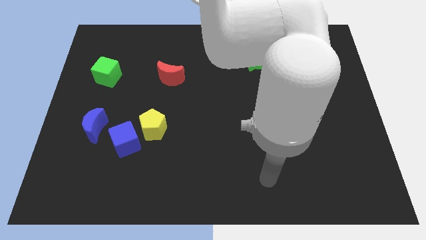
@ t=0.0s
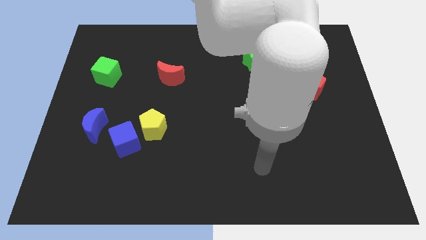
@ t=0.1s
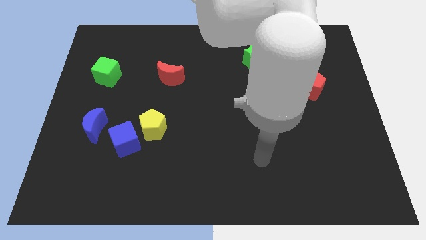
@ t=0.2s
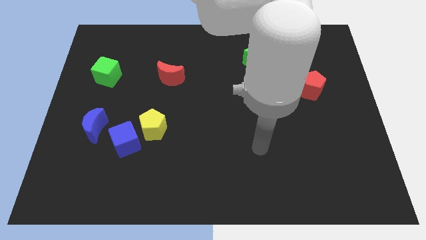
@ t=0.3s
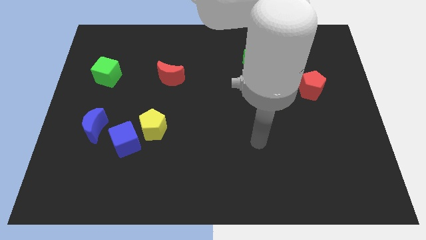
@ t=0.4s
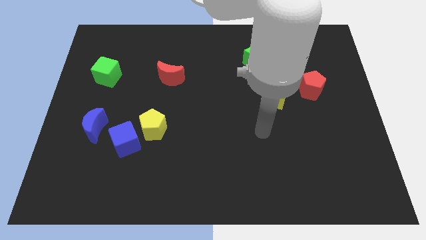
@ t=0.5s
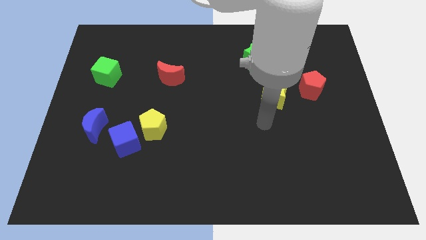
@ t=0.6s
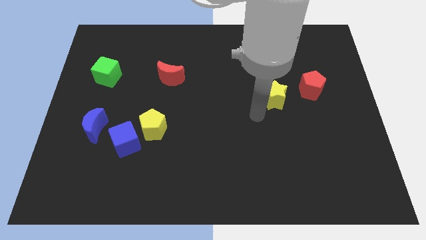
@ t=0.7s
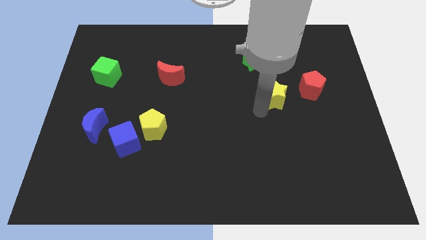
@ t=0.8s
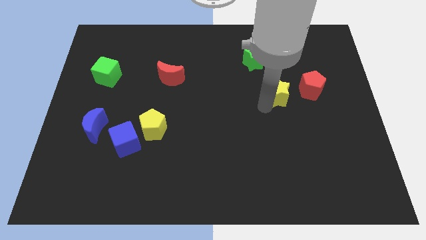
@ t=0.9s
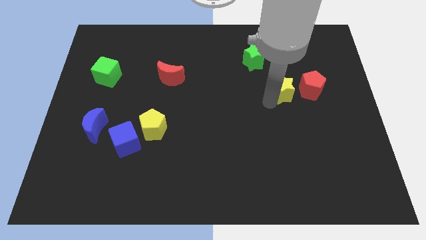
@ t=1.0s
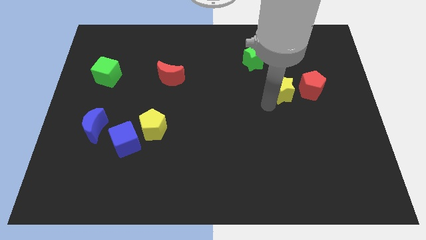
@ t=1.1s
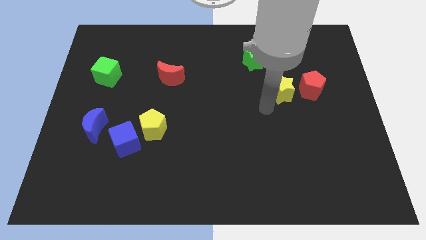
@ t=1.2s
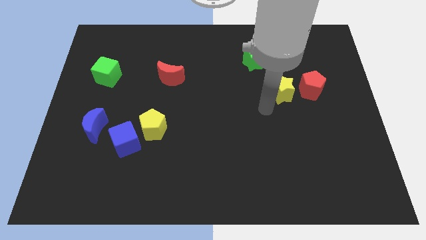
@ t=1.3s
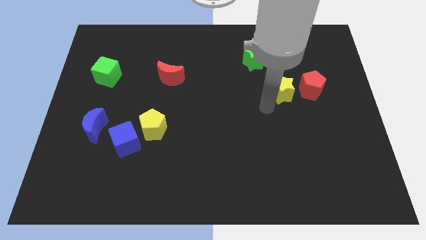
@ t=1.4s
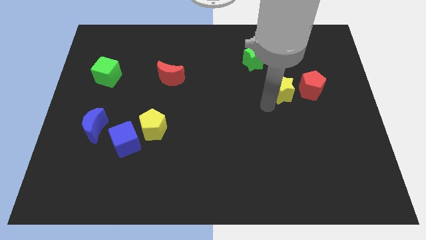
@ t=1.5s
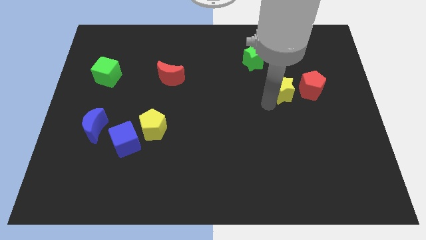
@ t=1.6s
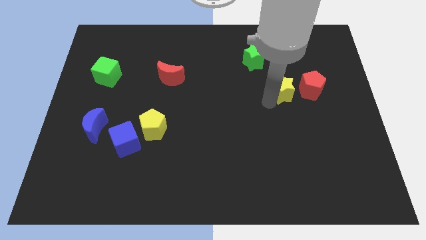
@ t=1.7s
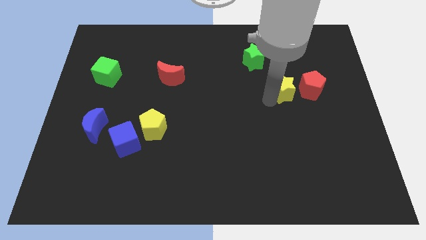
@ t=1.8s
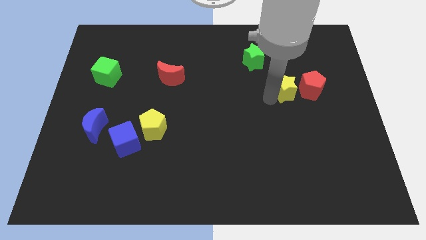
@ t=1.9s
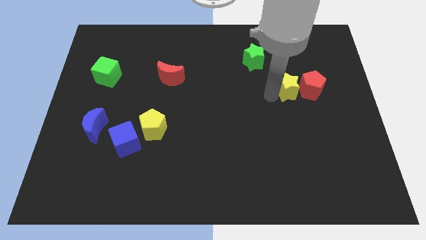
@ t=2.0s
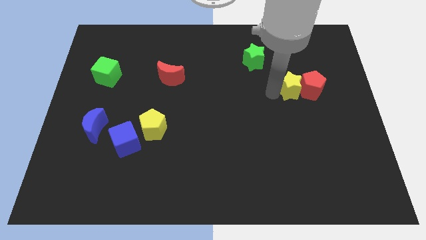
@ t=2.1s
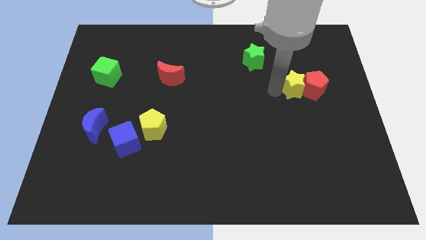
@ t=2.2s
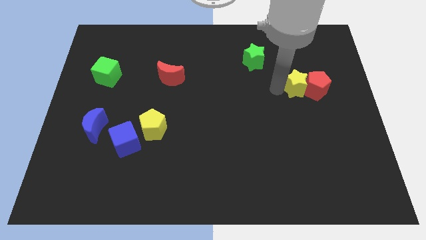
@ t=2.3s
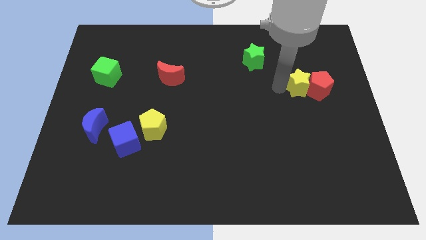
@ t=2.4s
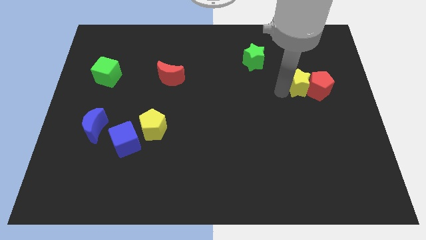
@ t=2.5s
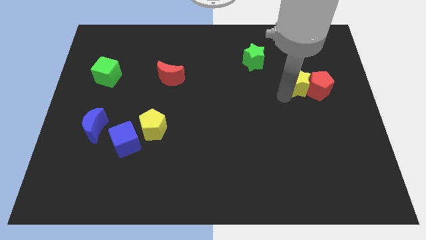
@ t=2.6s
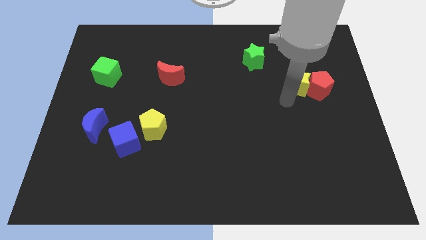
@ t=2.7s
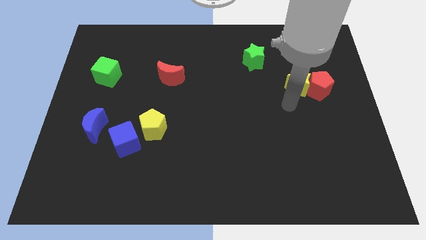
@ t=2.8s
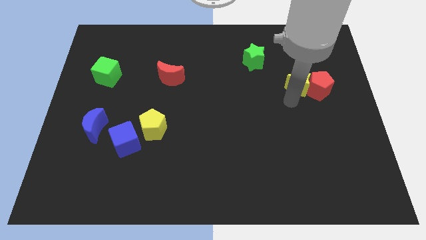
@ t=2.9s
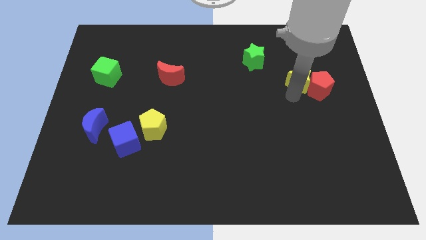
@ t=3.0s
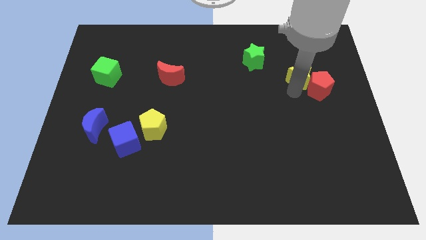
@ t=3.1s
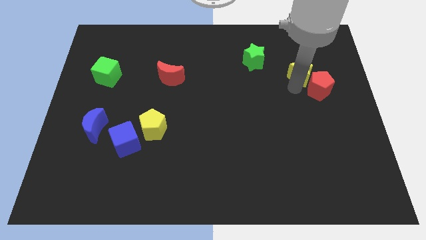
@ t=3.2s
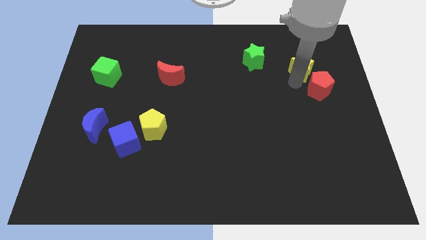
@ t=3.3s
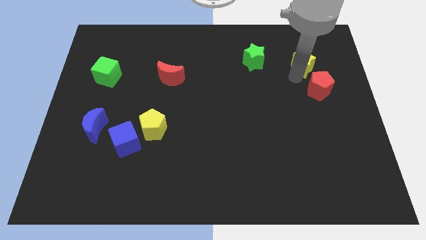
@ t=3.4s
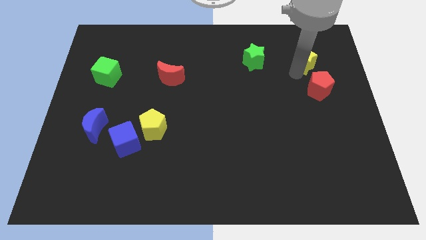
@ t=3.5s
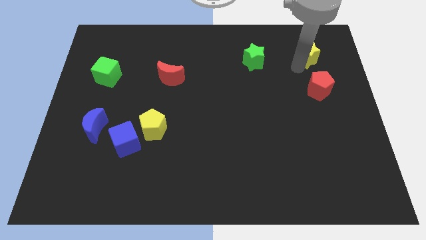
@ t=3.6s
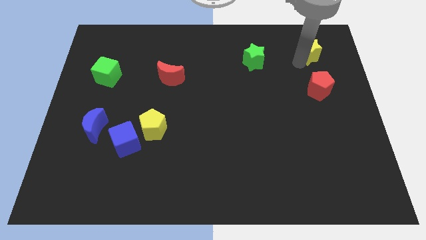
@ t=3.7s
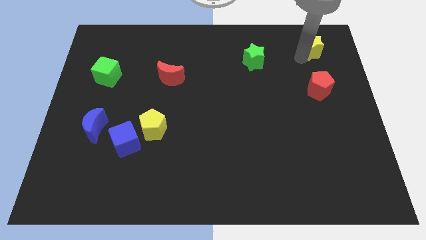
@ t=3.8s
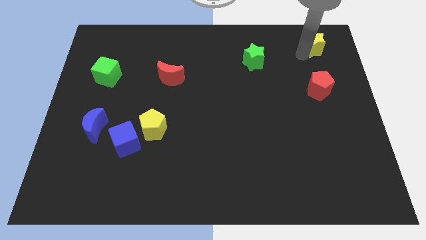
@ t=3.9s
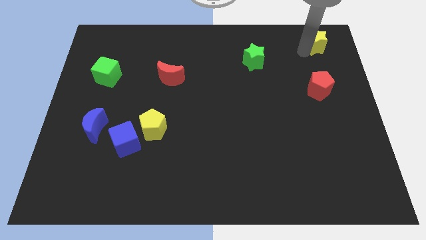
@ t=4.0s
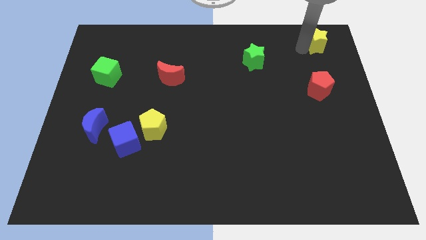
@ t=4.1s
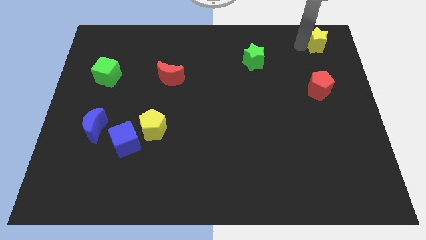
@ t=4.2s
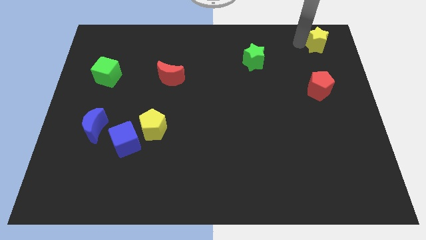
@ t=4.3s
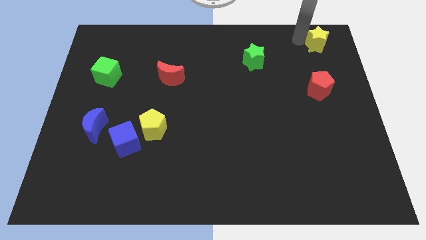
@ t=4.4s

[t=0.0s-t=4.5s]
move the yellow star to the top right of the board

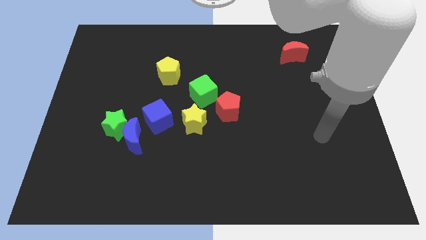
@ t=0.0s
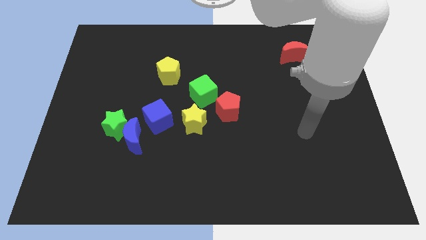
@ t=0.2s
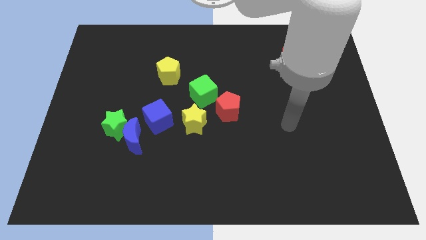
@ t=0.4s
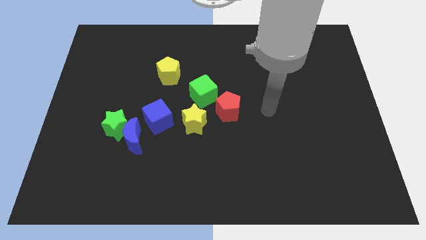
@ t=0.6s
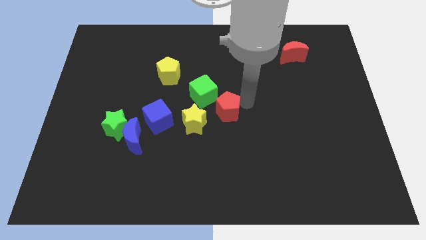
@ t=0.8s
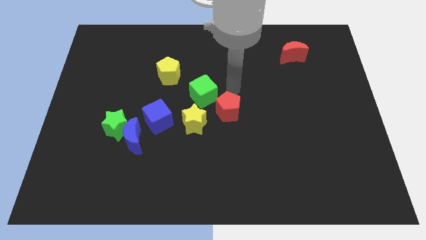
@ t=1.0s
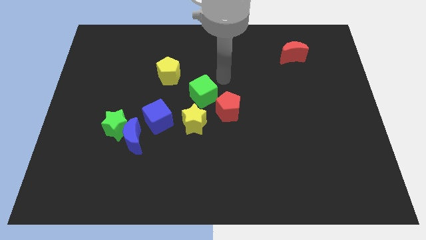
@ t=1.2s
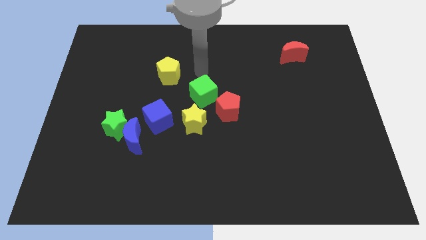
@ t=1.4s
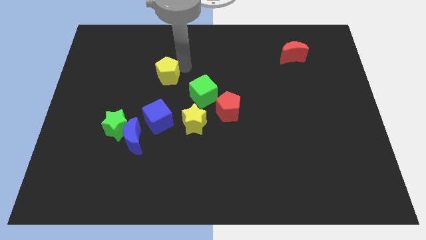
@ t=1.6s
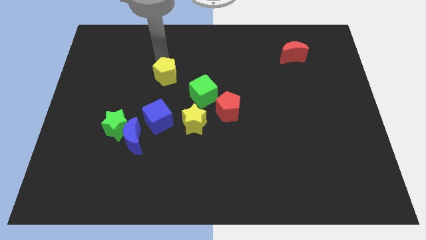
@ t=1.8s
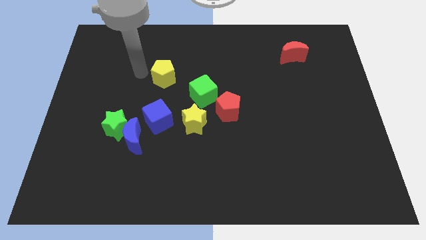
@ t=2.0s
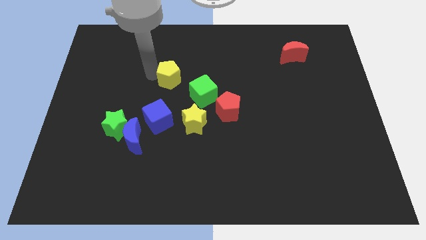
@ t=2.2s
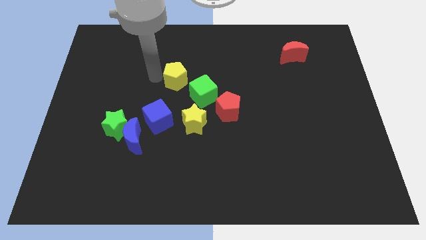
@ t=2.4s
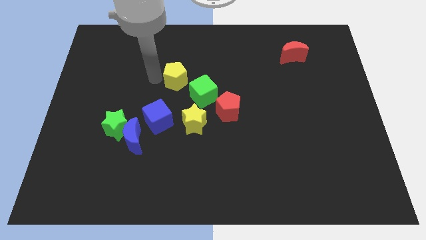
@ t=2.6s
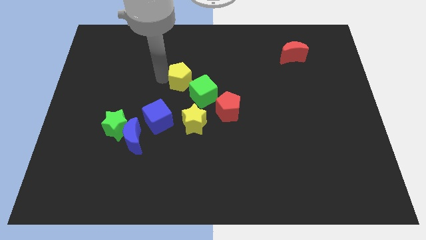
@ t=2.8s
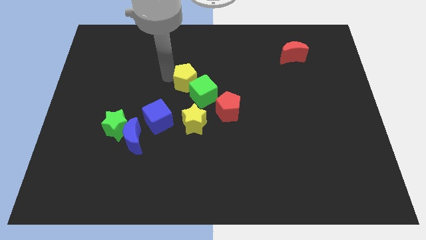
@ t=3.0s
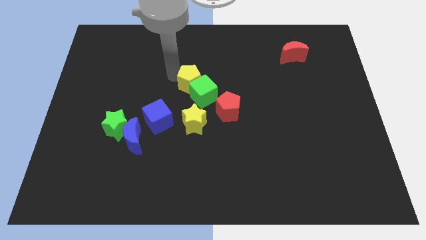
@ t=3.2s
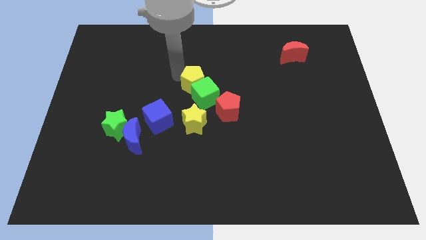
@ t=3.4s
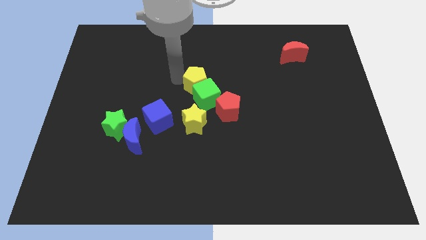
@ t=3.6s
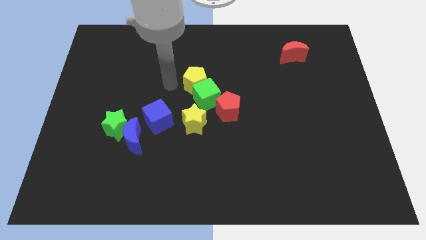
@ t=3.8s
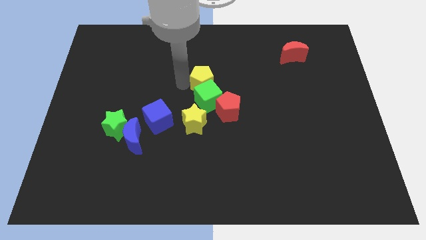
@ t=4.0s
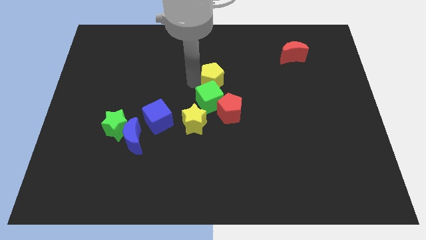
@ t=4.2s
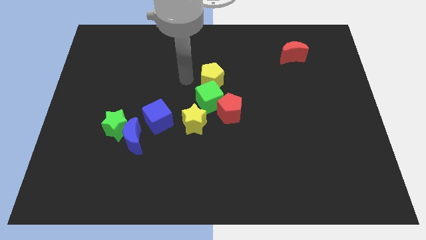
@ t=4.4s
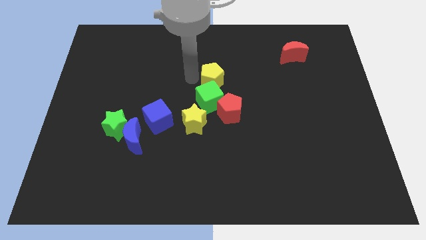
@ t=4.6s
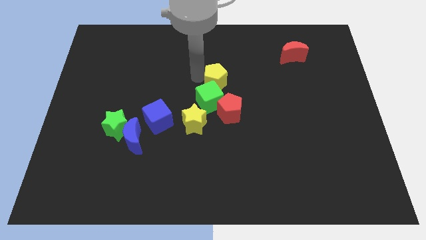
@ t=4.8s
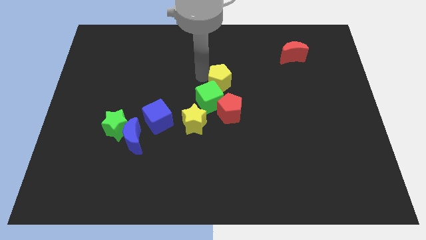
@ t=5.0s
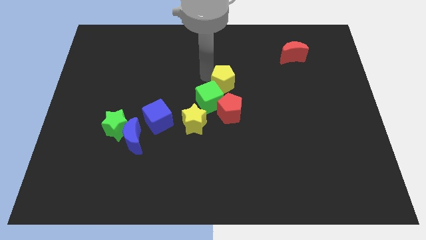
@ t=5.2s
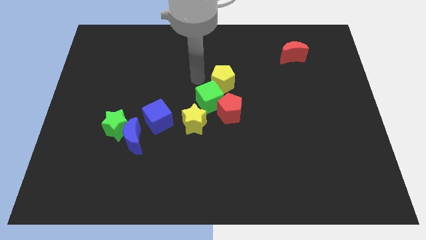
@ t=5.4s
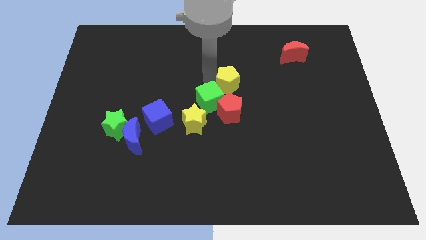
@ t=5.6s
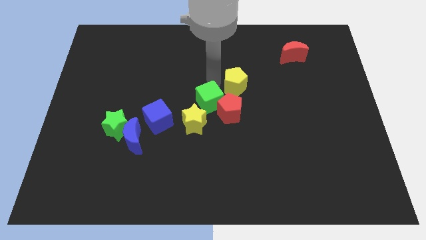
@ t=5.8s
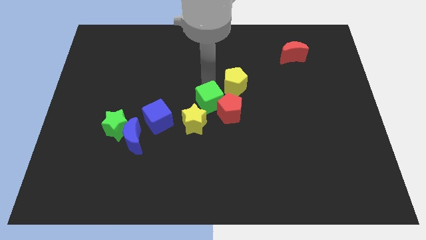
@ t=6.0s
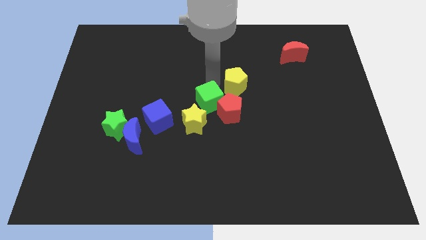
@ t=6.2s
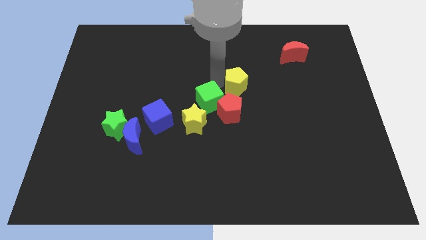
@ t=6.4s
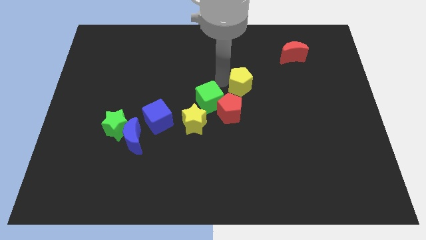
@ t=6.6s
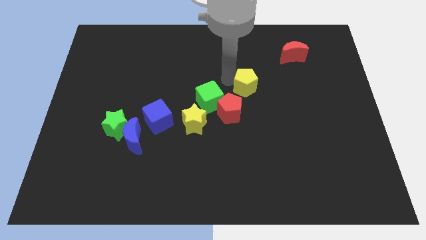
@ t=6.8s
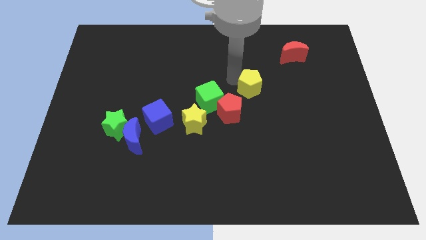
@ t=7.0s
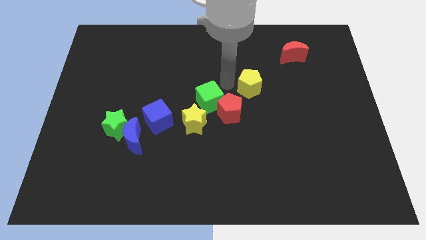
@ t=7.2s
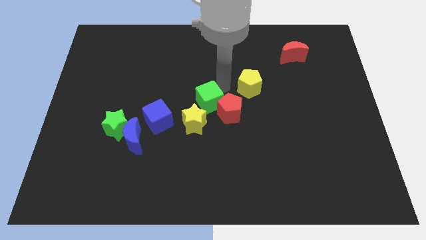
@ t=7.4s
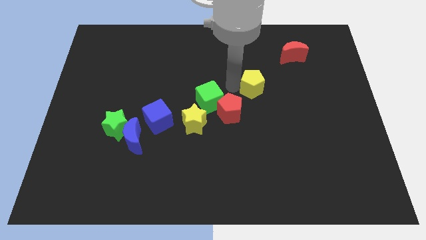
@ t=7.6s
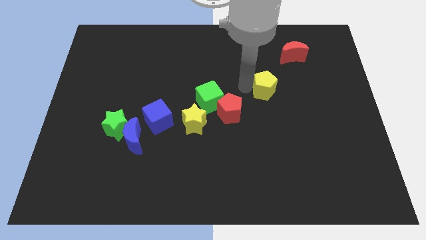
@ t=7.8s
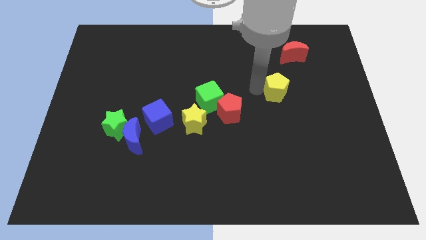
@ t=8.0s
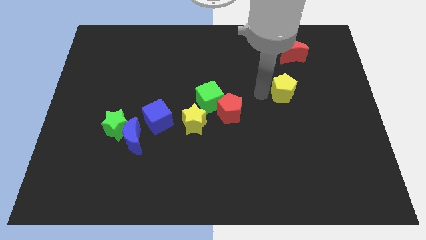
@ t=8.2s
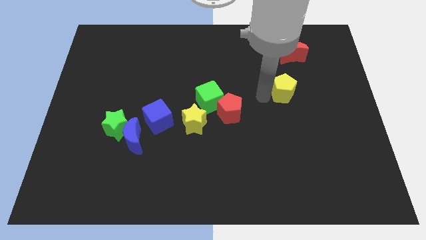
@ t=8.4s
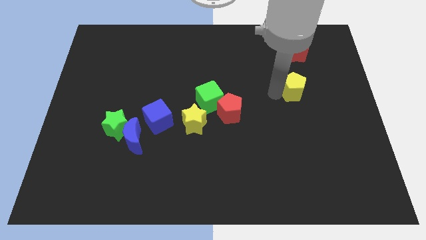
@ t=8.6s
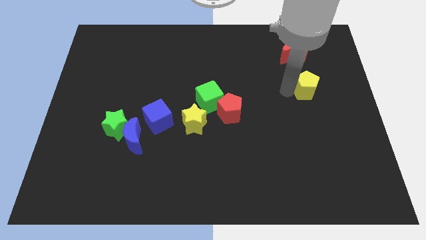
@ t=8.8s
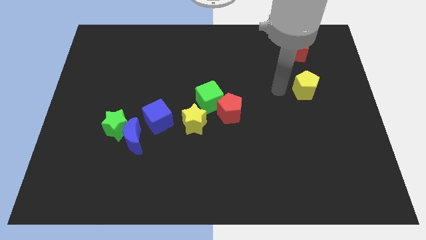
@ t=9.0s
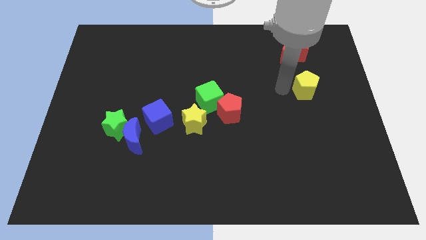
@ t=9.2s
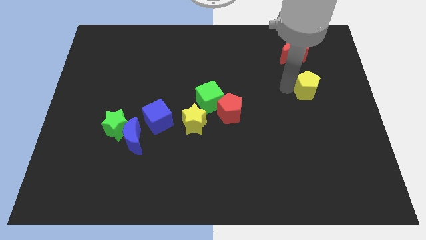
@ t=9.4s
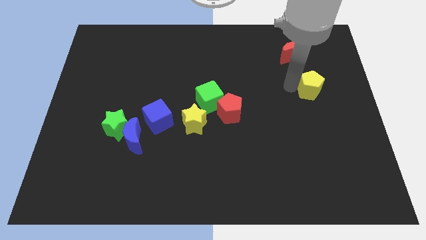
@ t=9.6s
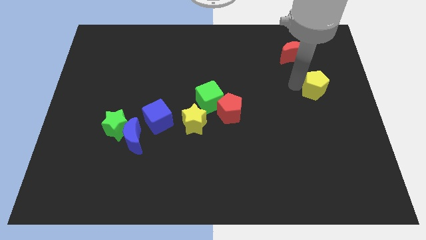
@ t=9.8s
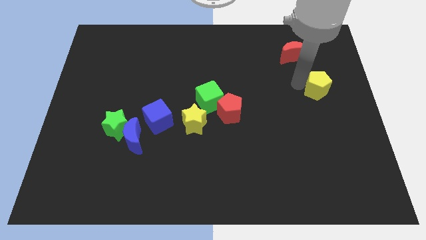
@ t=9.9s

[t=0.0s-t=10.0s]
put the yellow pentagon to the right side
